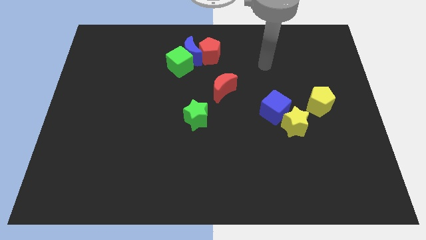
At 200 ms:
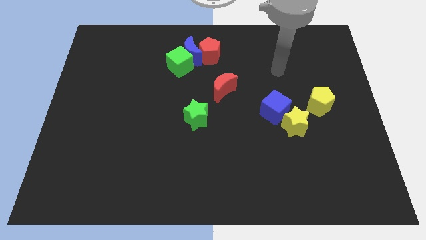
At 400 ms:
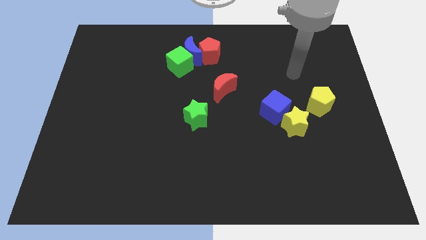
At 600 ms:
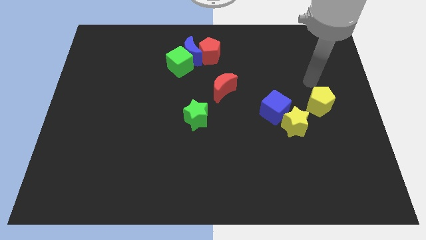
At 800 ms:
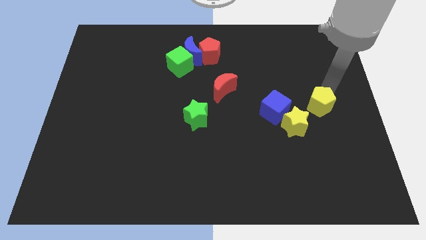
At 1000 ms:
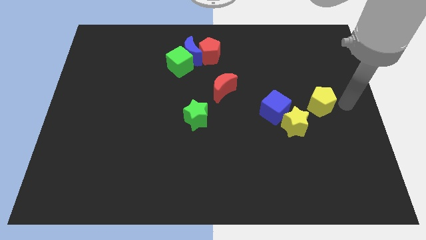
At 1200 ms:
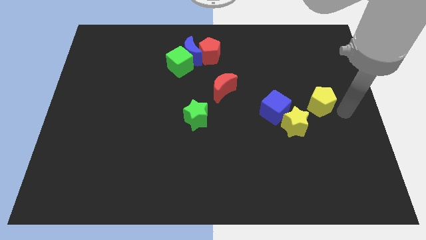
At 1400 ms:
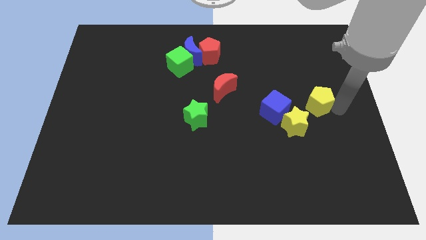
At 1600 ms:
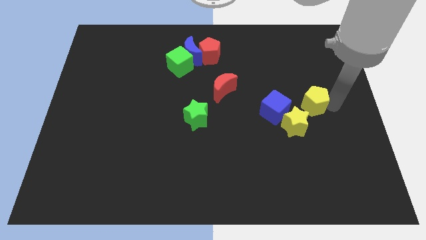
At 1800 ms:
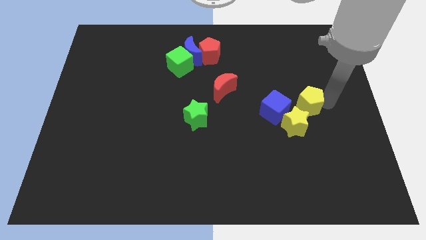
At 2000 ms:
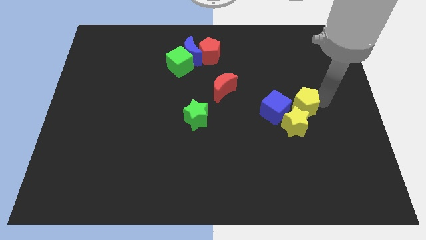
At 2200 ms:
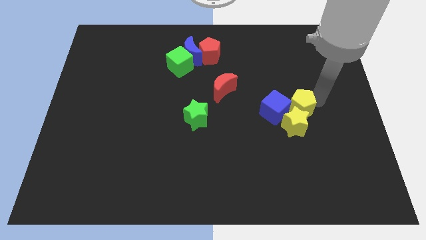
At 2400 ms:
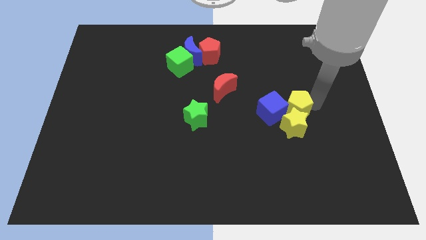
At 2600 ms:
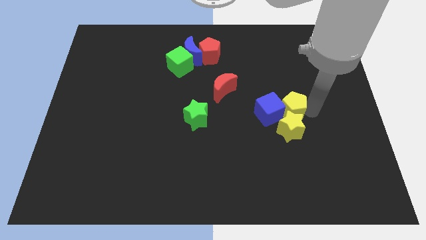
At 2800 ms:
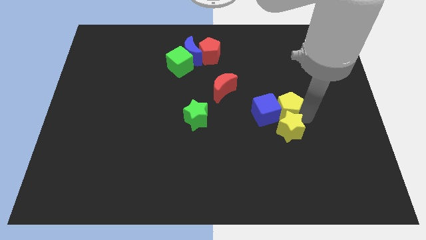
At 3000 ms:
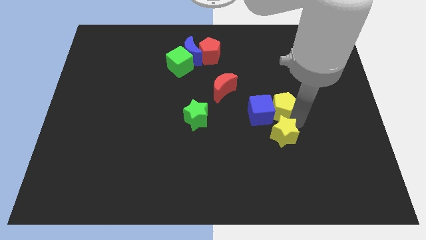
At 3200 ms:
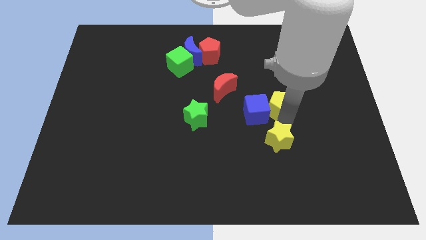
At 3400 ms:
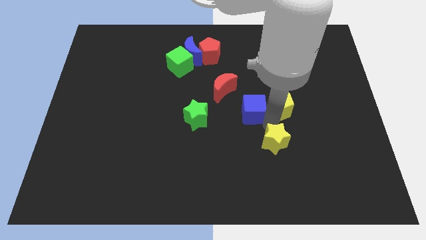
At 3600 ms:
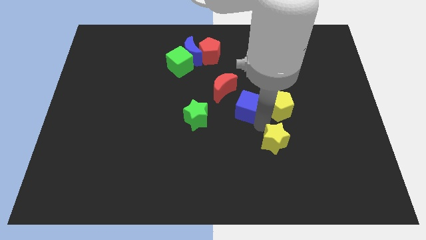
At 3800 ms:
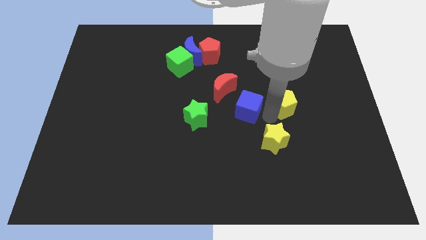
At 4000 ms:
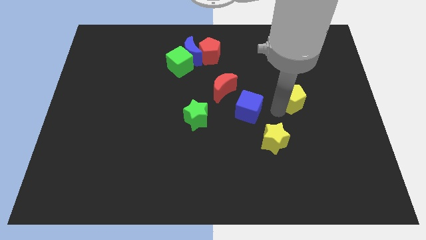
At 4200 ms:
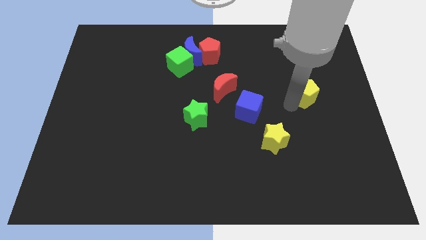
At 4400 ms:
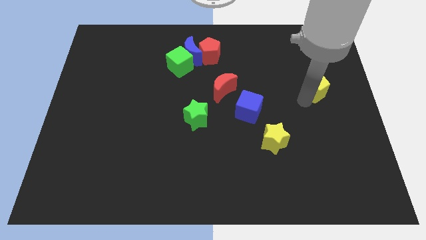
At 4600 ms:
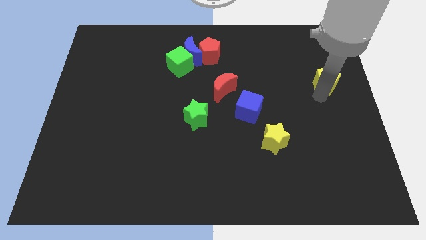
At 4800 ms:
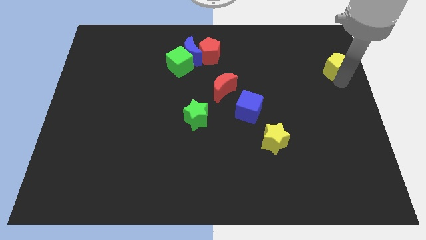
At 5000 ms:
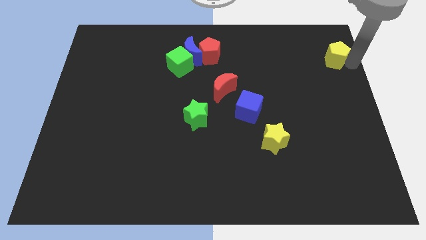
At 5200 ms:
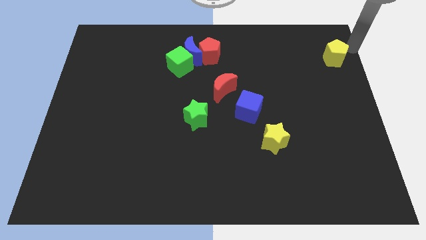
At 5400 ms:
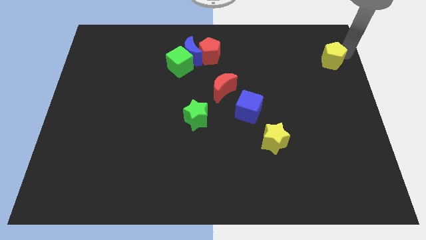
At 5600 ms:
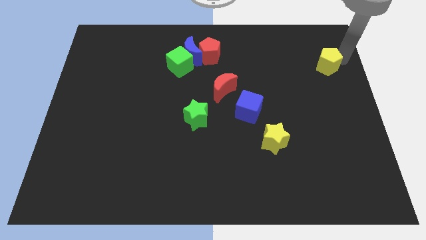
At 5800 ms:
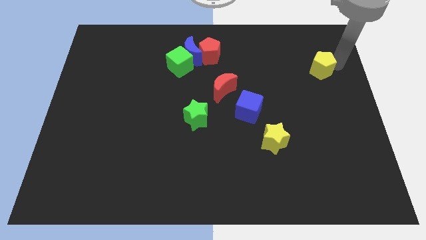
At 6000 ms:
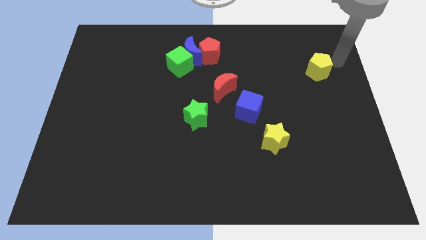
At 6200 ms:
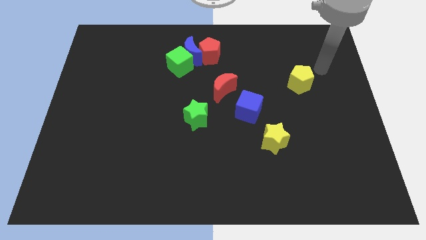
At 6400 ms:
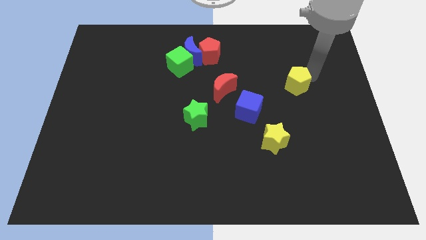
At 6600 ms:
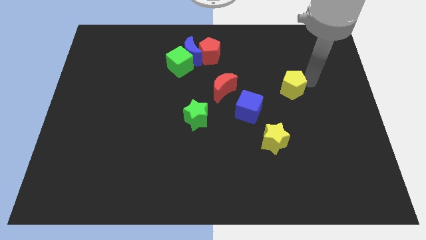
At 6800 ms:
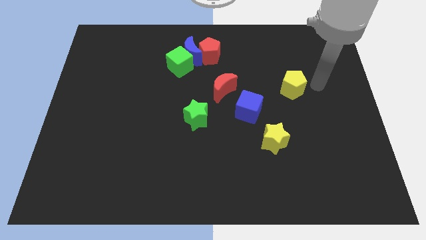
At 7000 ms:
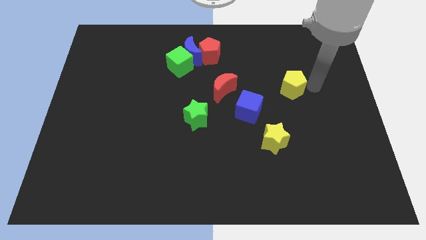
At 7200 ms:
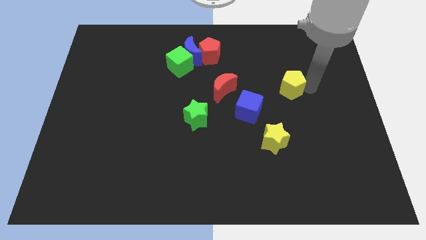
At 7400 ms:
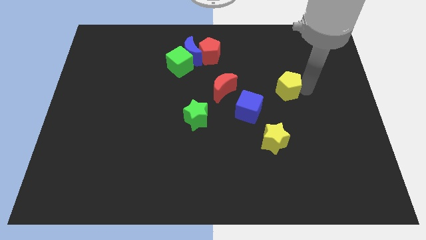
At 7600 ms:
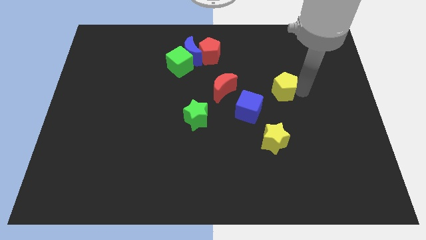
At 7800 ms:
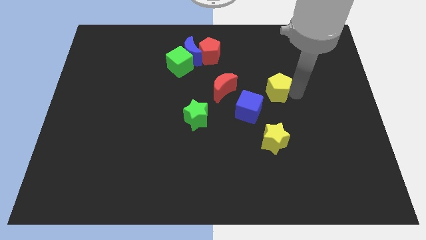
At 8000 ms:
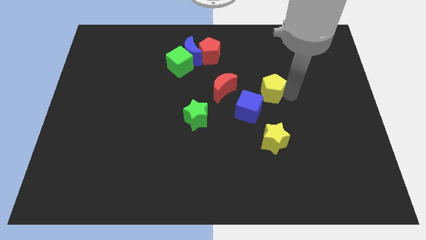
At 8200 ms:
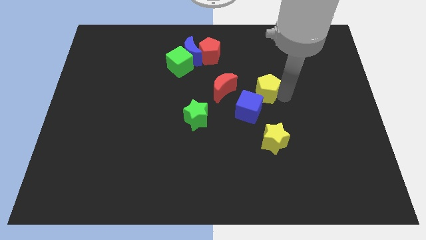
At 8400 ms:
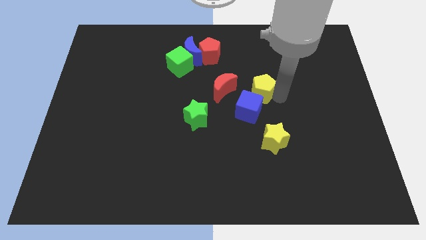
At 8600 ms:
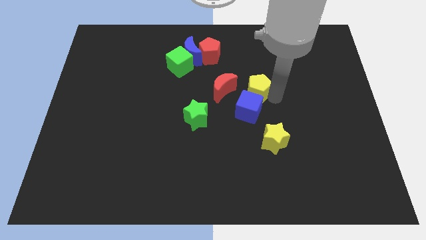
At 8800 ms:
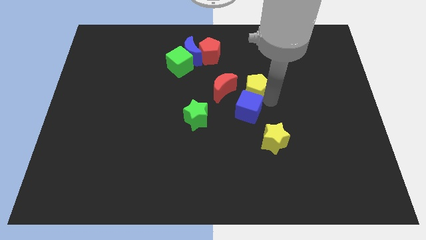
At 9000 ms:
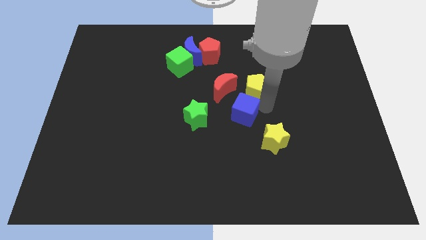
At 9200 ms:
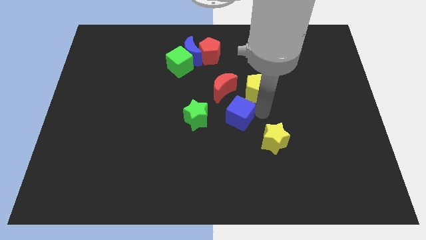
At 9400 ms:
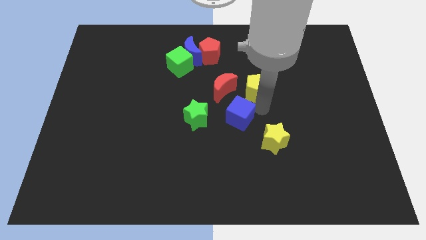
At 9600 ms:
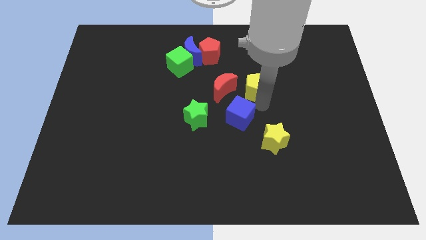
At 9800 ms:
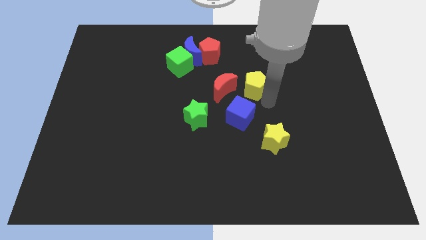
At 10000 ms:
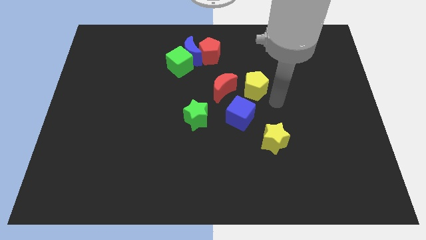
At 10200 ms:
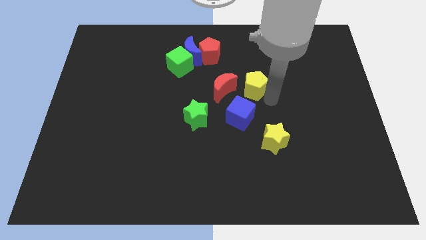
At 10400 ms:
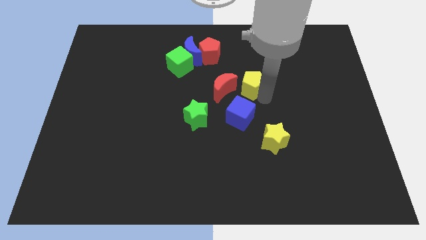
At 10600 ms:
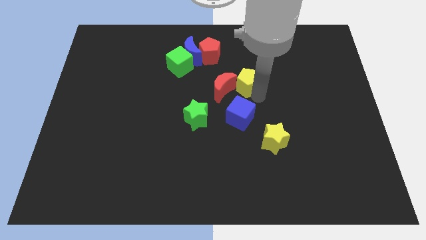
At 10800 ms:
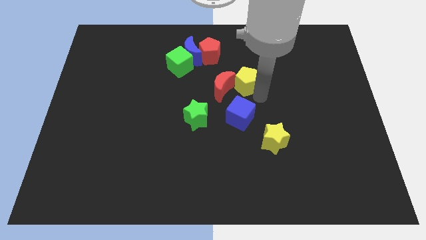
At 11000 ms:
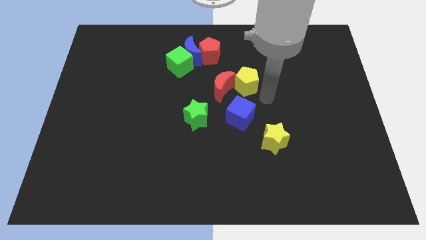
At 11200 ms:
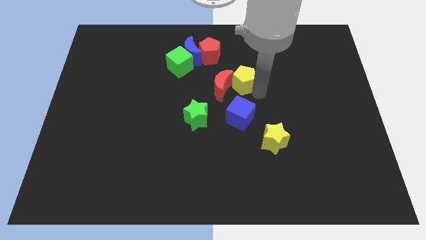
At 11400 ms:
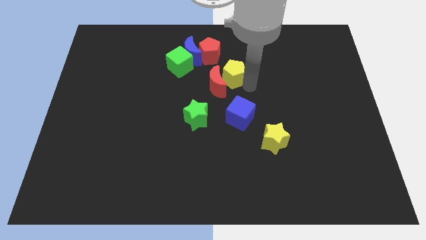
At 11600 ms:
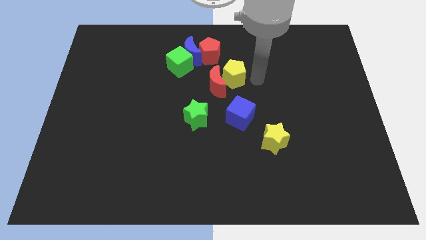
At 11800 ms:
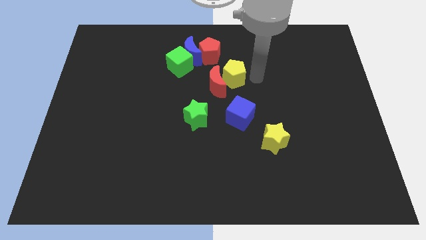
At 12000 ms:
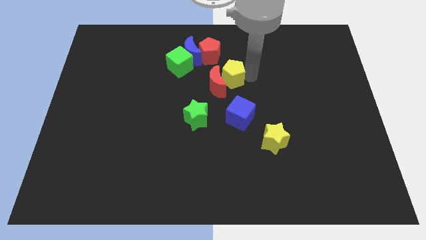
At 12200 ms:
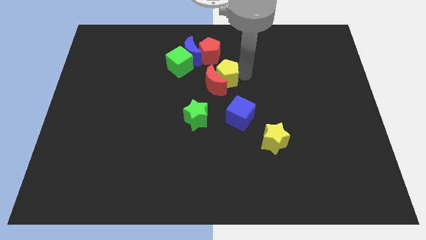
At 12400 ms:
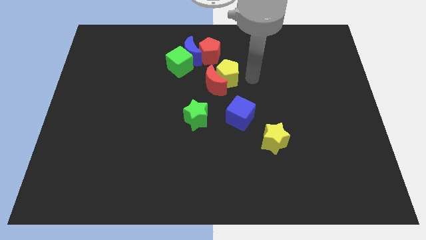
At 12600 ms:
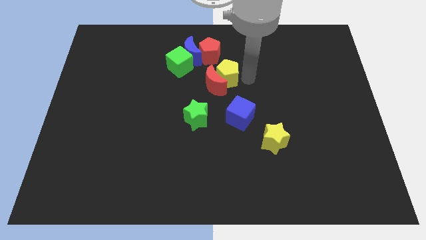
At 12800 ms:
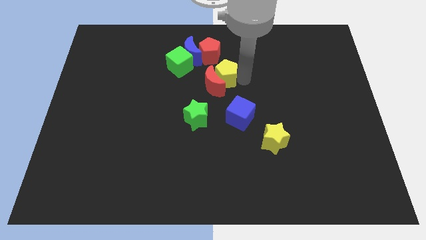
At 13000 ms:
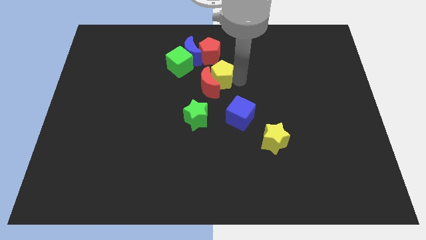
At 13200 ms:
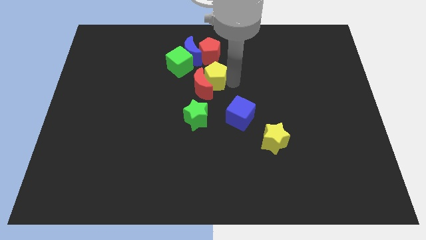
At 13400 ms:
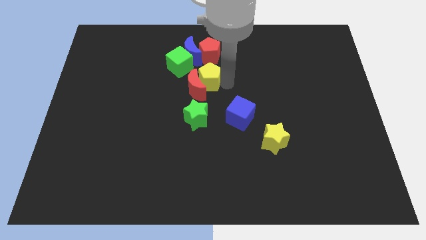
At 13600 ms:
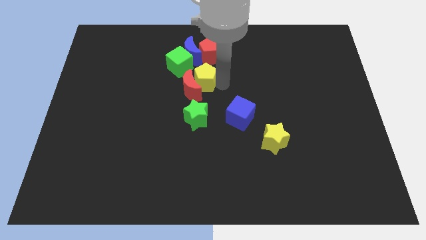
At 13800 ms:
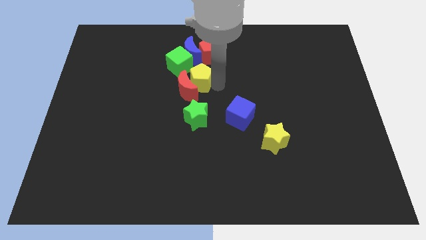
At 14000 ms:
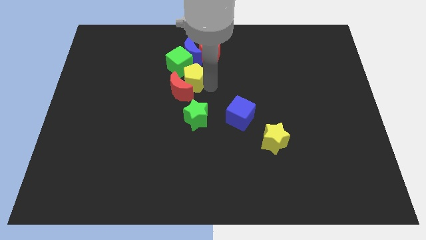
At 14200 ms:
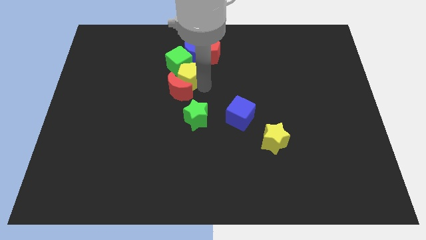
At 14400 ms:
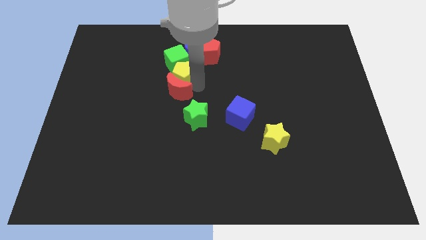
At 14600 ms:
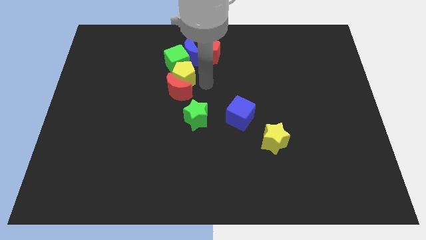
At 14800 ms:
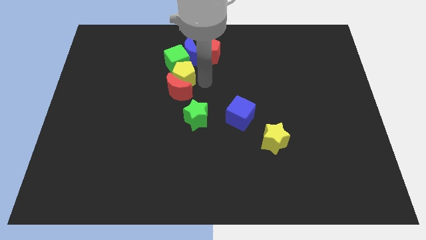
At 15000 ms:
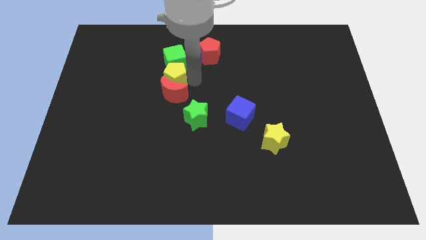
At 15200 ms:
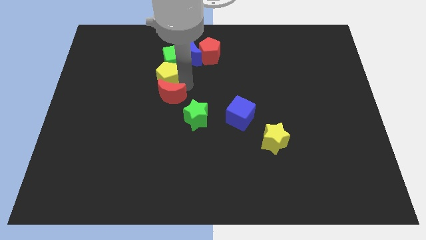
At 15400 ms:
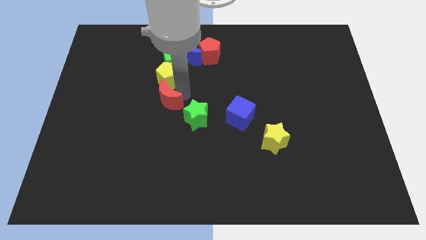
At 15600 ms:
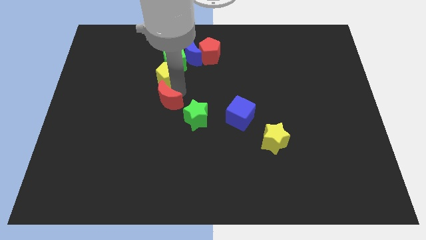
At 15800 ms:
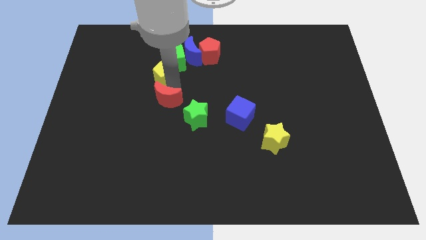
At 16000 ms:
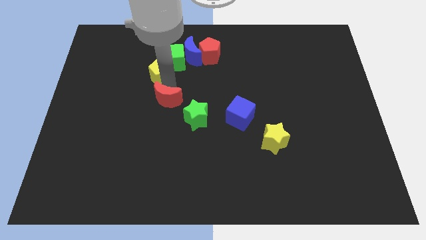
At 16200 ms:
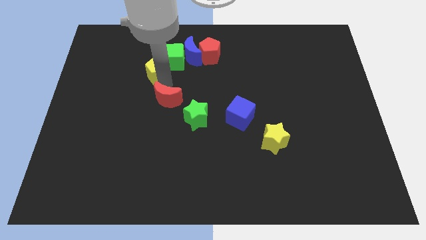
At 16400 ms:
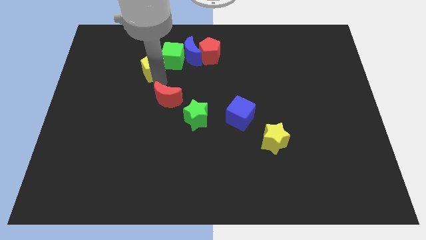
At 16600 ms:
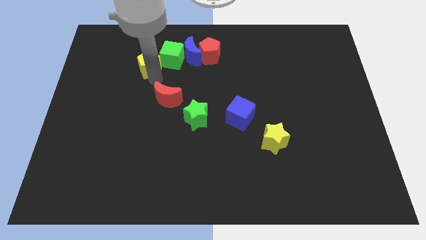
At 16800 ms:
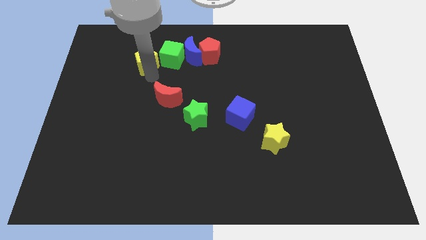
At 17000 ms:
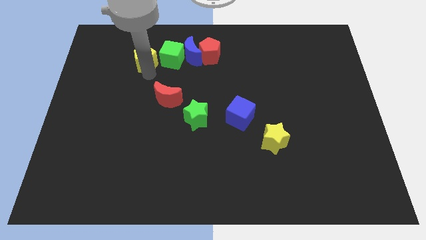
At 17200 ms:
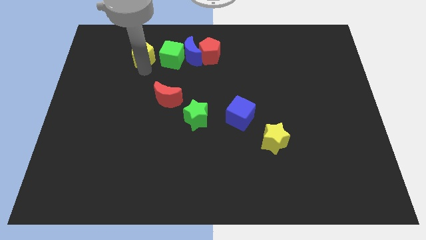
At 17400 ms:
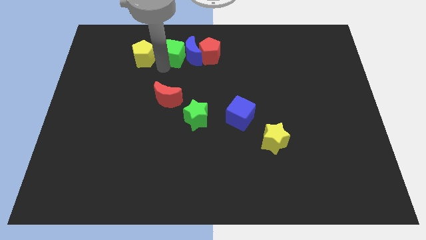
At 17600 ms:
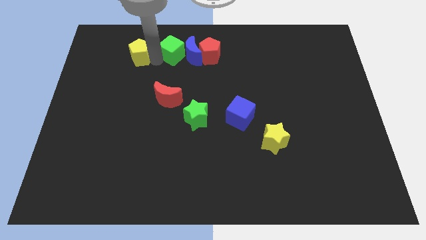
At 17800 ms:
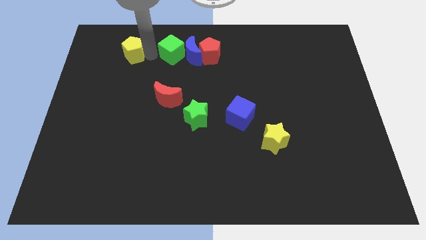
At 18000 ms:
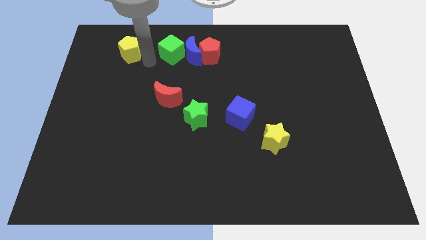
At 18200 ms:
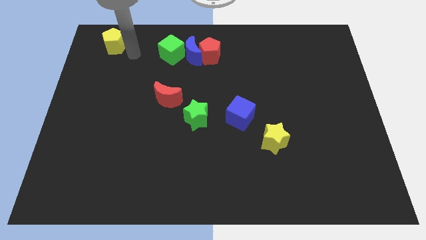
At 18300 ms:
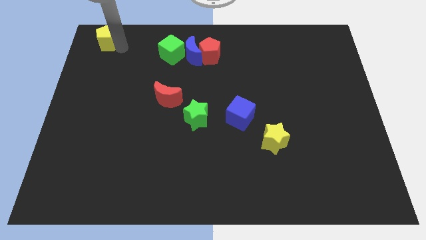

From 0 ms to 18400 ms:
slide the yellow pentagon to the top left of the board
